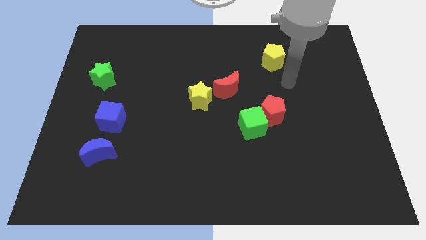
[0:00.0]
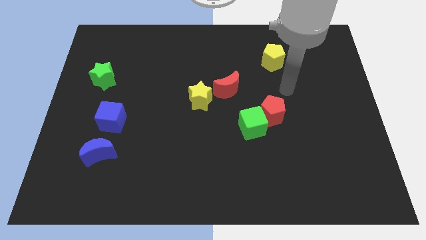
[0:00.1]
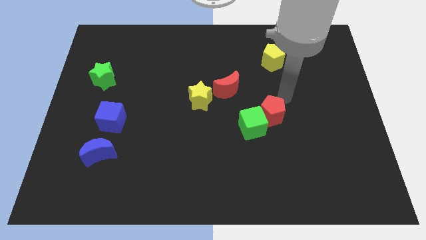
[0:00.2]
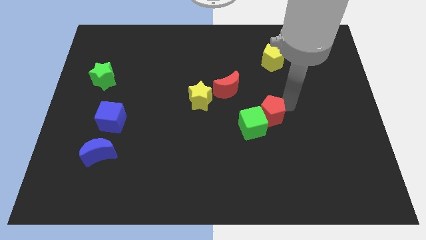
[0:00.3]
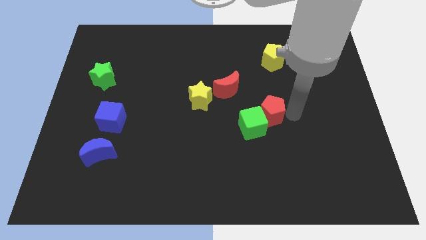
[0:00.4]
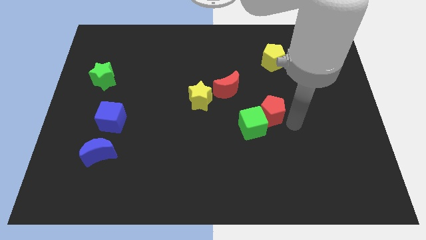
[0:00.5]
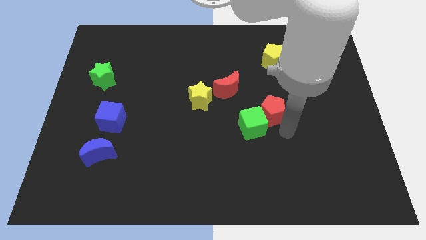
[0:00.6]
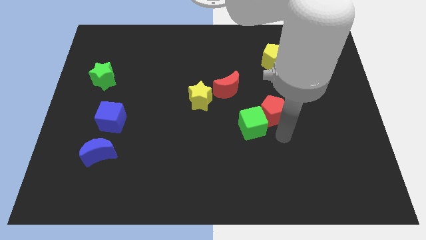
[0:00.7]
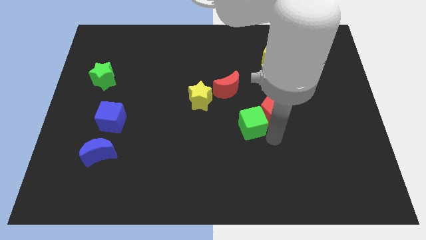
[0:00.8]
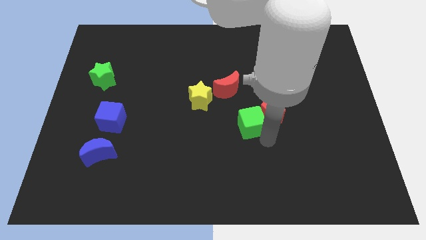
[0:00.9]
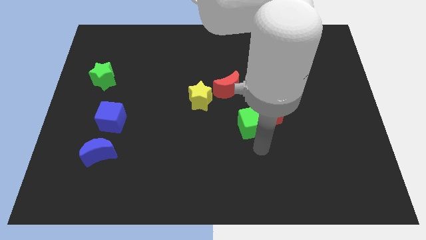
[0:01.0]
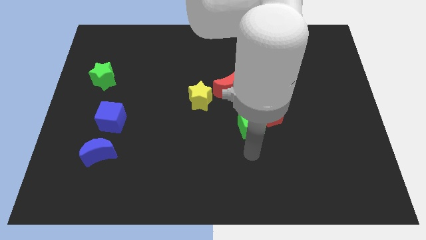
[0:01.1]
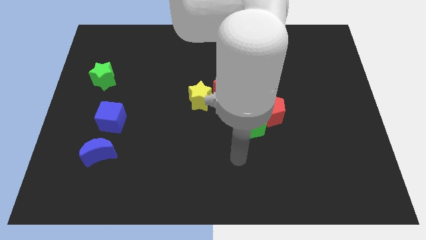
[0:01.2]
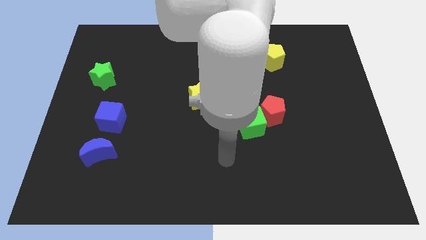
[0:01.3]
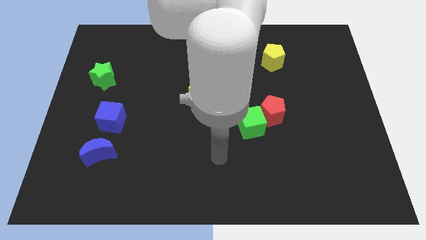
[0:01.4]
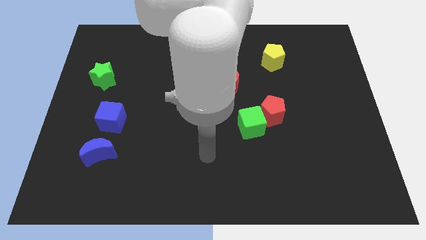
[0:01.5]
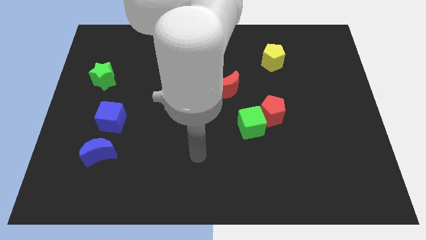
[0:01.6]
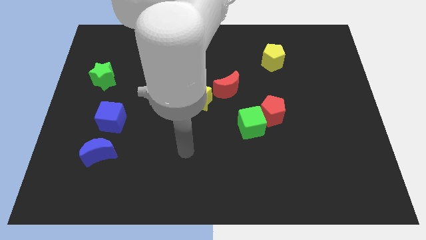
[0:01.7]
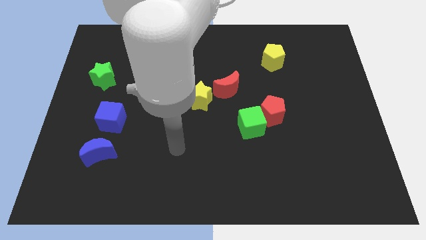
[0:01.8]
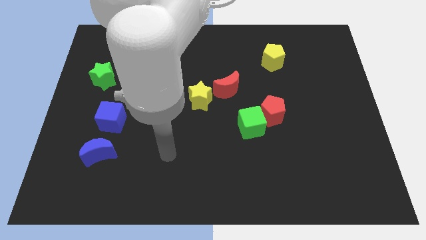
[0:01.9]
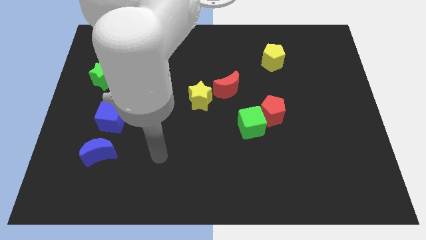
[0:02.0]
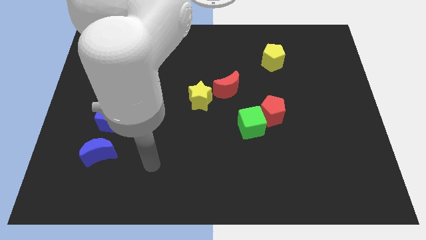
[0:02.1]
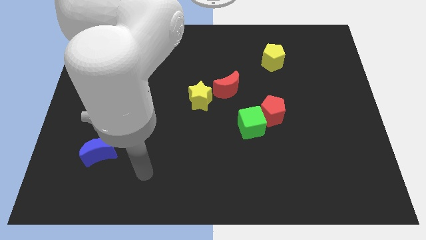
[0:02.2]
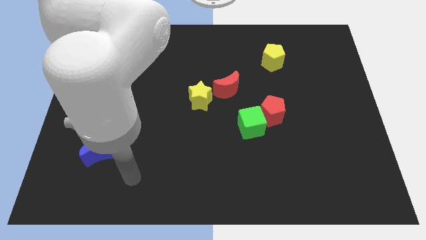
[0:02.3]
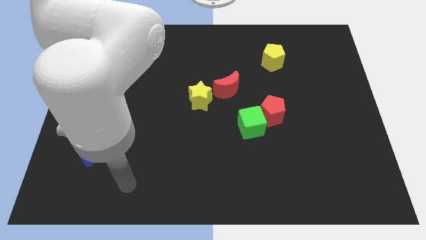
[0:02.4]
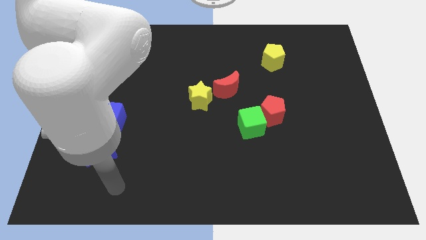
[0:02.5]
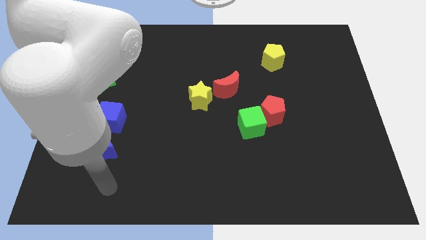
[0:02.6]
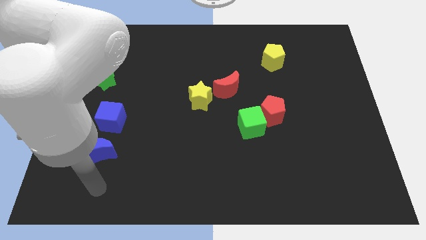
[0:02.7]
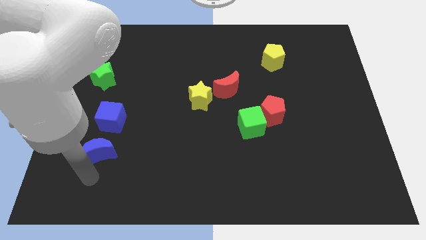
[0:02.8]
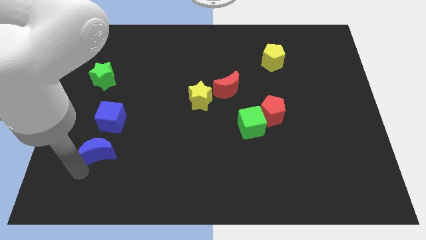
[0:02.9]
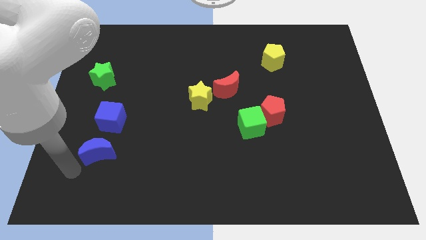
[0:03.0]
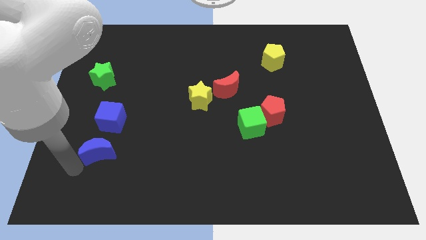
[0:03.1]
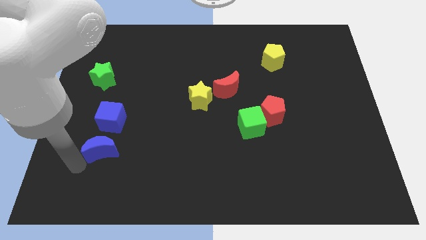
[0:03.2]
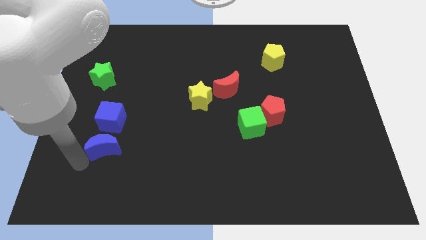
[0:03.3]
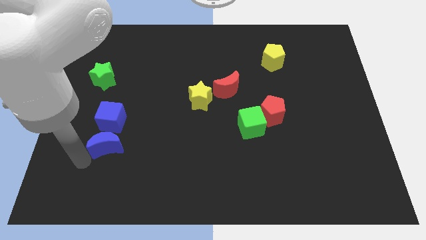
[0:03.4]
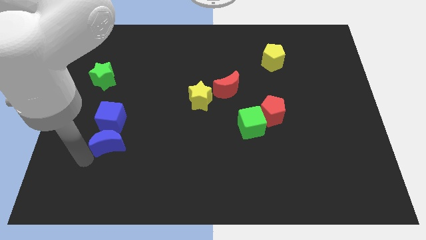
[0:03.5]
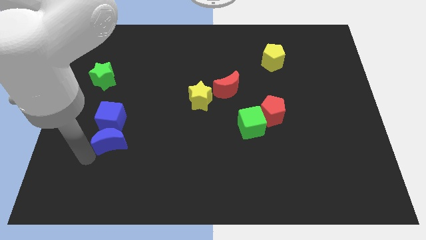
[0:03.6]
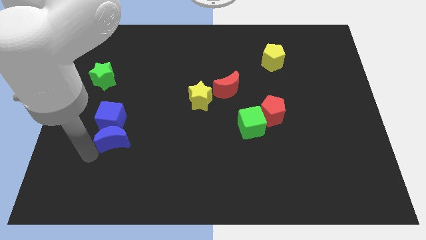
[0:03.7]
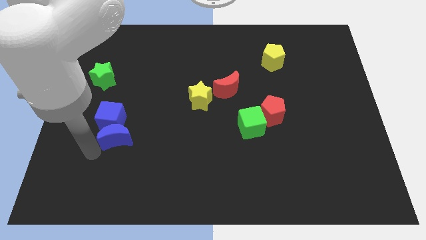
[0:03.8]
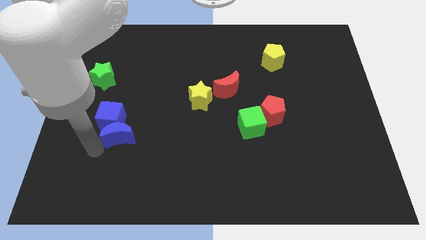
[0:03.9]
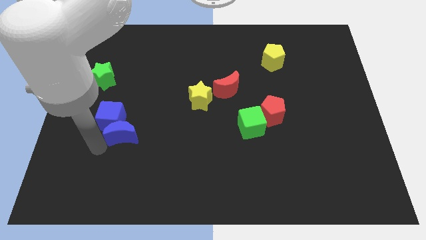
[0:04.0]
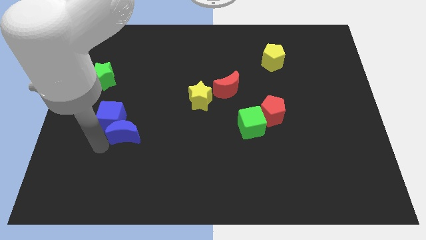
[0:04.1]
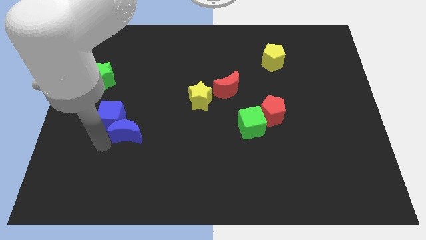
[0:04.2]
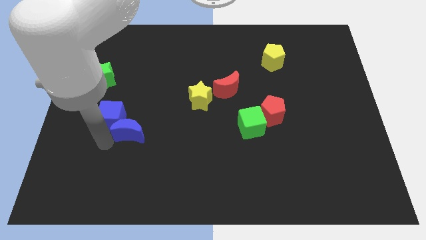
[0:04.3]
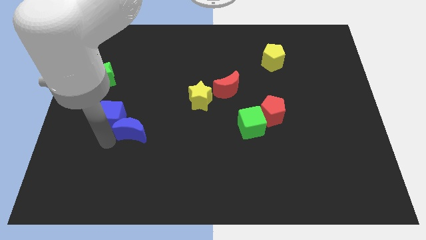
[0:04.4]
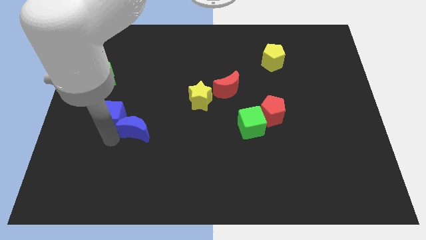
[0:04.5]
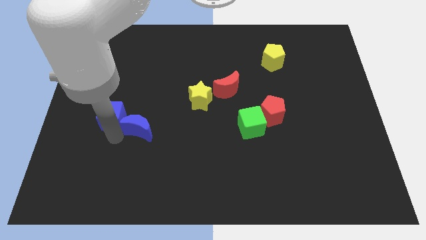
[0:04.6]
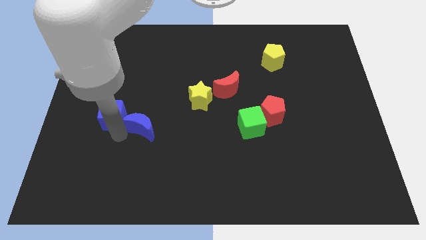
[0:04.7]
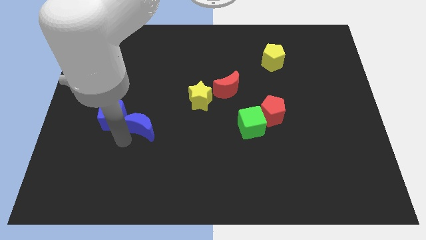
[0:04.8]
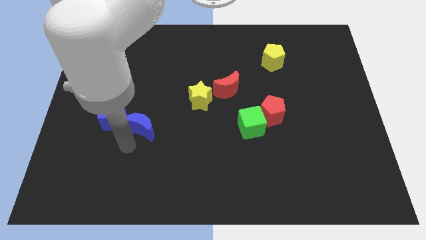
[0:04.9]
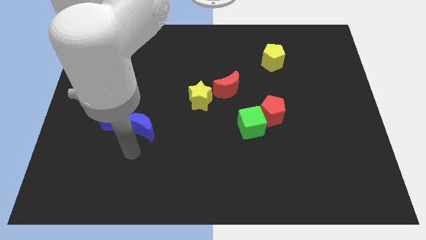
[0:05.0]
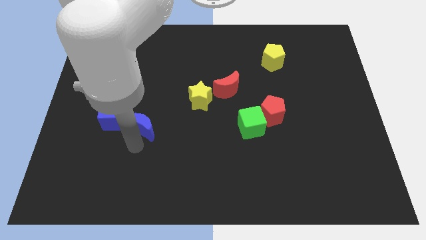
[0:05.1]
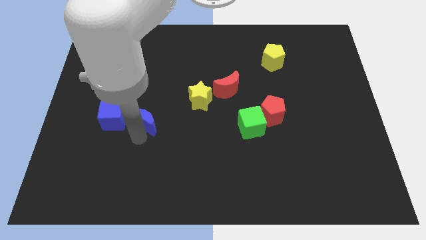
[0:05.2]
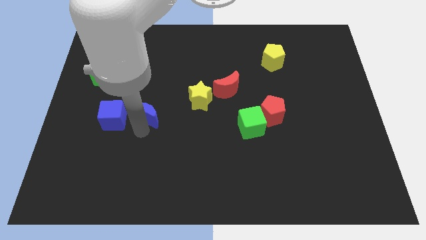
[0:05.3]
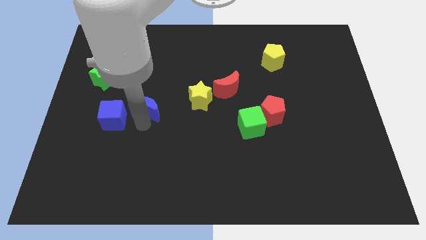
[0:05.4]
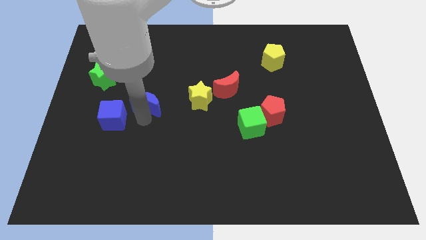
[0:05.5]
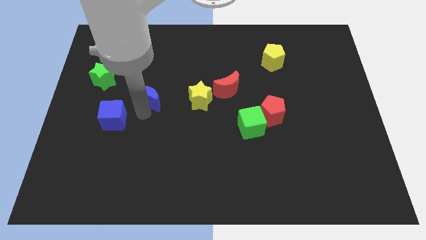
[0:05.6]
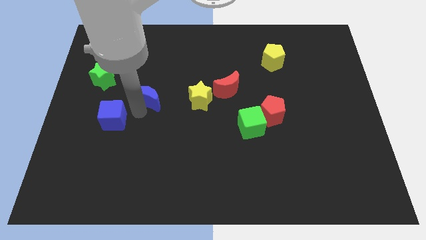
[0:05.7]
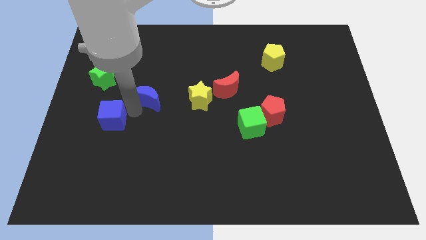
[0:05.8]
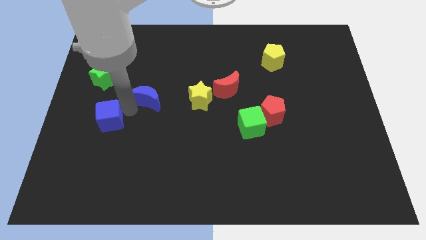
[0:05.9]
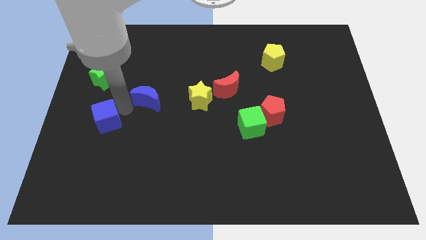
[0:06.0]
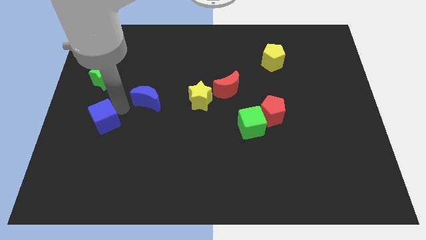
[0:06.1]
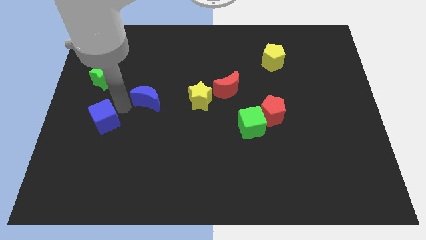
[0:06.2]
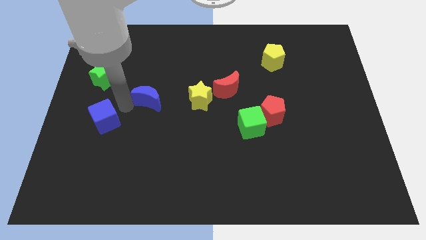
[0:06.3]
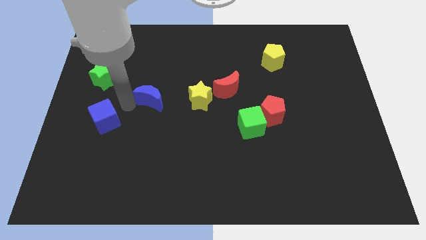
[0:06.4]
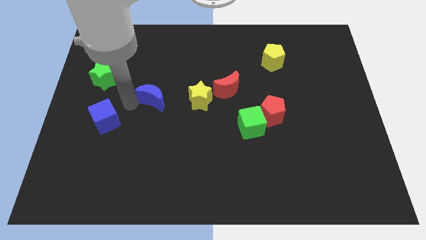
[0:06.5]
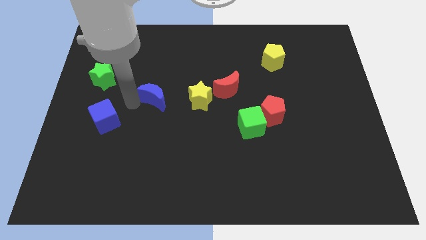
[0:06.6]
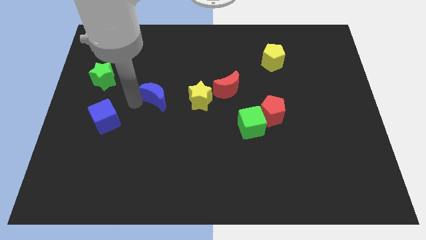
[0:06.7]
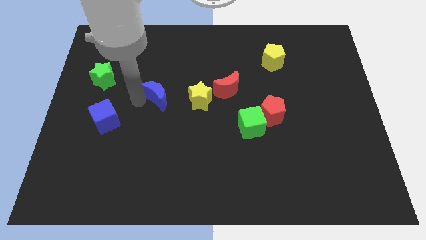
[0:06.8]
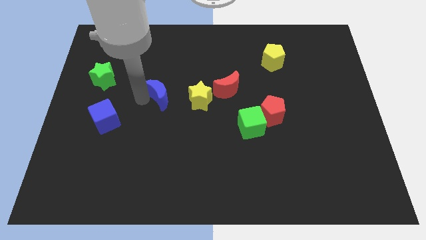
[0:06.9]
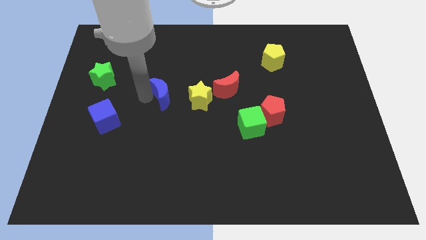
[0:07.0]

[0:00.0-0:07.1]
push the blue moon up and to the right

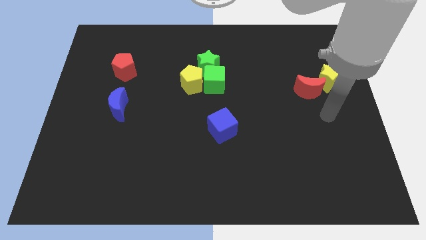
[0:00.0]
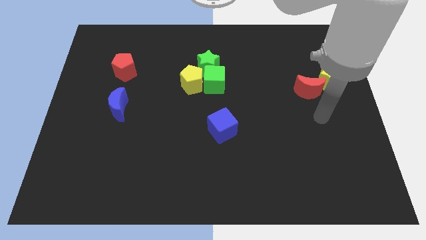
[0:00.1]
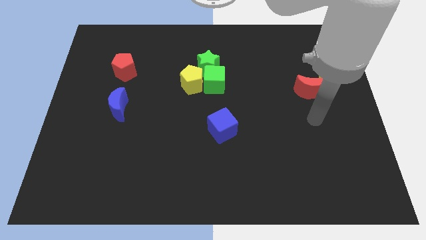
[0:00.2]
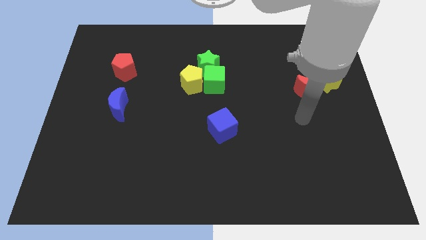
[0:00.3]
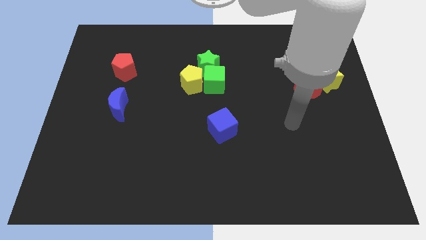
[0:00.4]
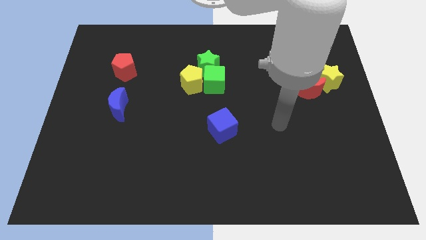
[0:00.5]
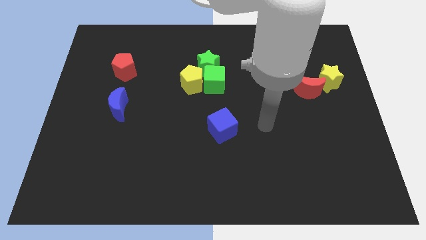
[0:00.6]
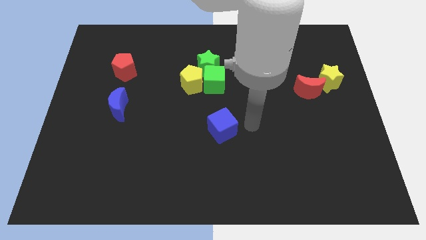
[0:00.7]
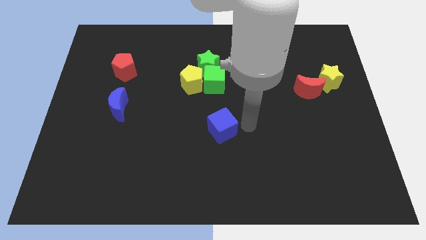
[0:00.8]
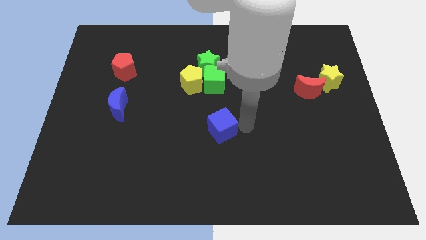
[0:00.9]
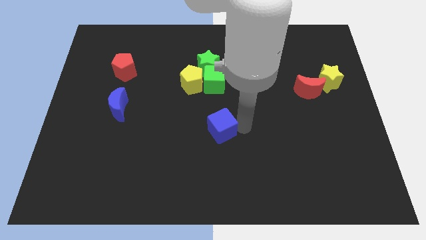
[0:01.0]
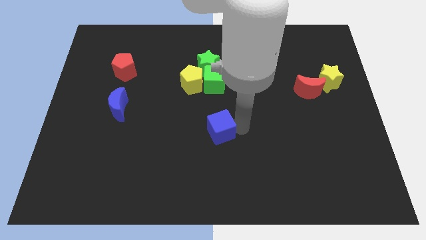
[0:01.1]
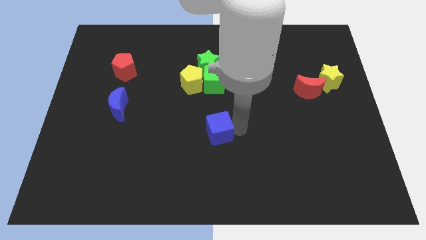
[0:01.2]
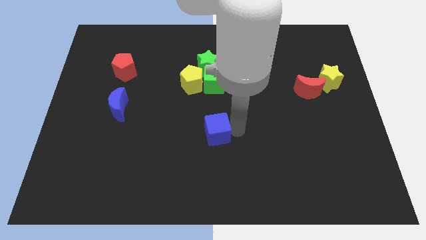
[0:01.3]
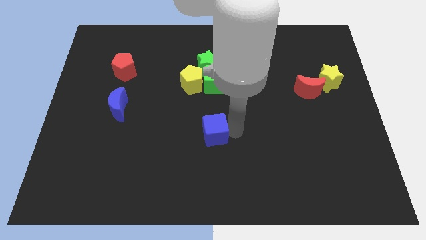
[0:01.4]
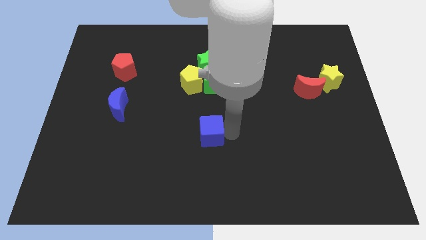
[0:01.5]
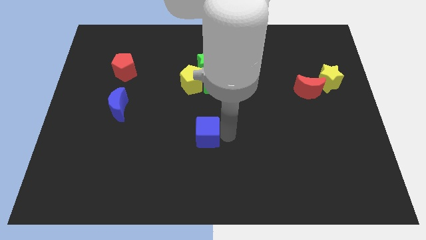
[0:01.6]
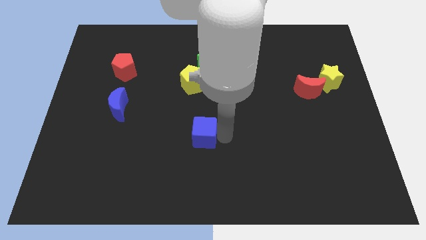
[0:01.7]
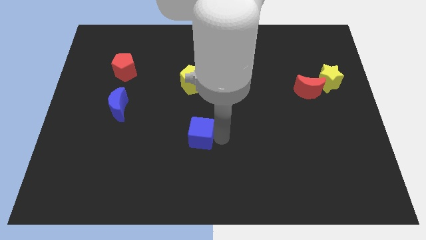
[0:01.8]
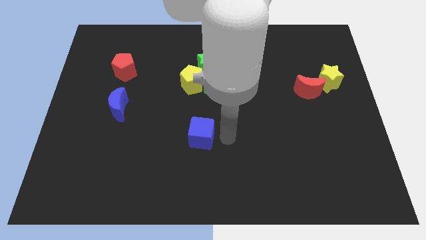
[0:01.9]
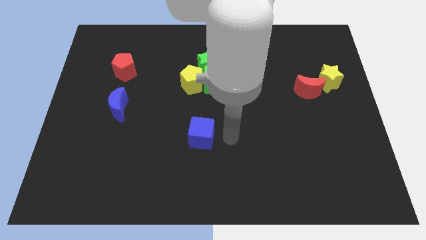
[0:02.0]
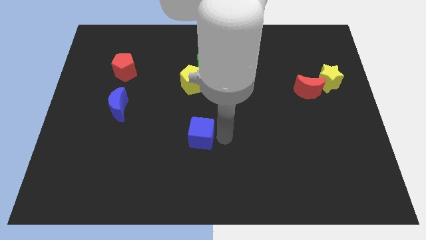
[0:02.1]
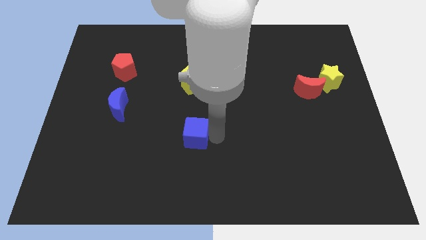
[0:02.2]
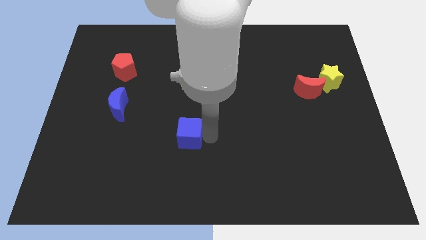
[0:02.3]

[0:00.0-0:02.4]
slightly move the blue cube to the left
